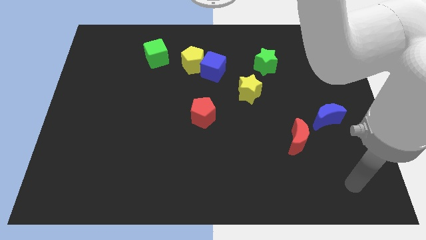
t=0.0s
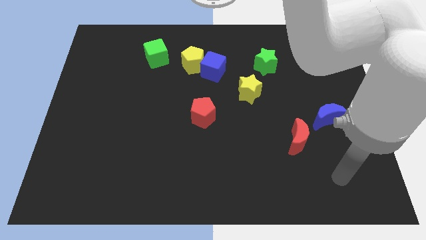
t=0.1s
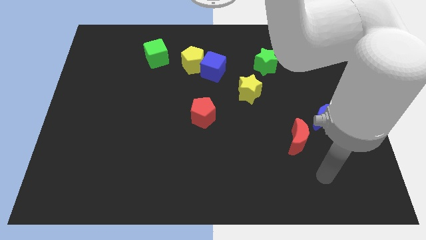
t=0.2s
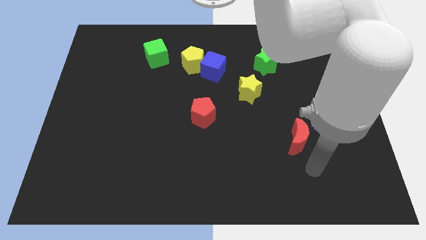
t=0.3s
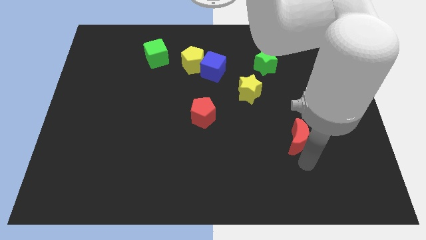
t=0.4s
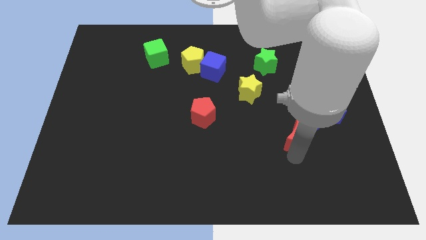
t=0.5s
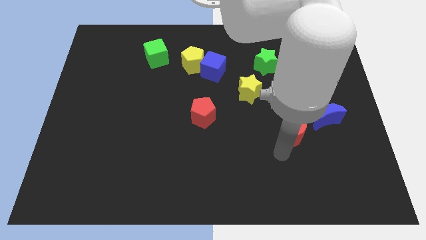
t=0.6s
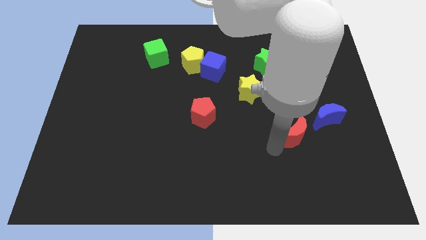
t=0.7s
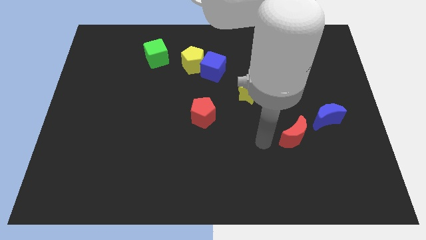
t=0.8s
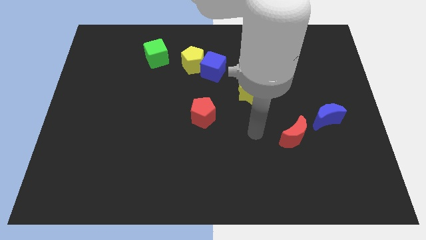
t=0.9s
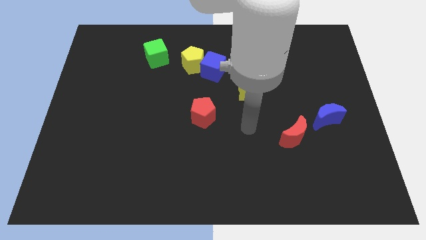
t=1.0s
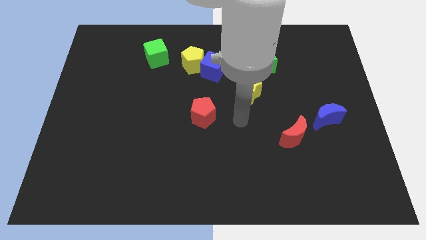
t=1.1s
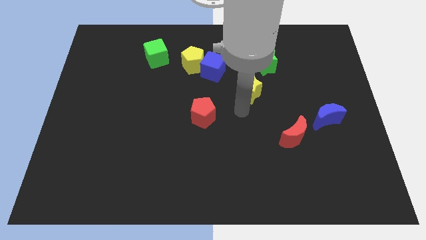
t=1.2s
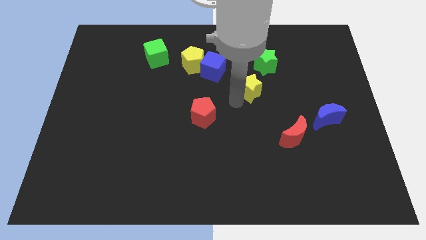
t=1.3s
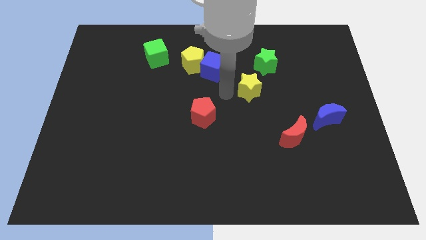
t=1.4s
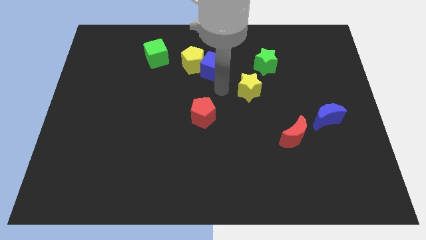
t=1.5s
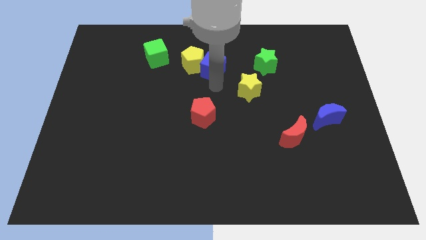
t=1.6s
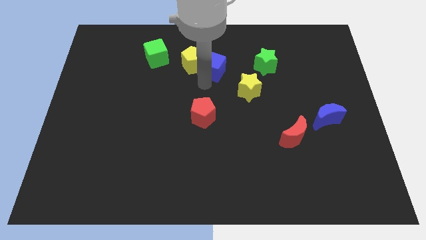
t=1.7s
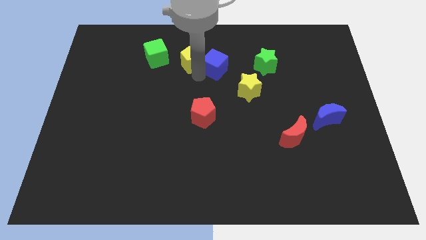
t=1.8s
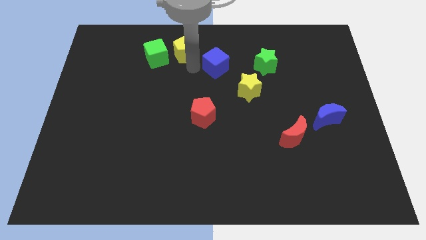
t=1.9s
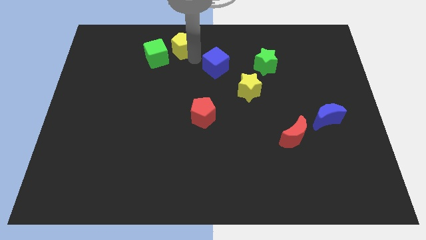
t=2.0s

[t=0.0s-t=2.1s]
move the blue cube away from the yellow pentagon

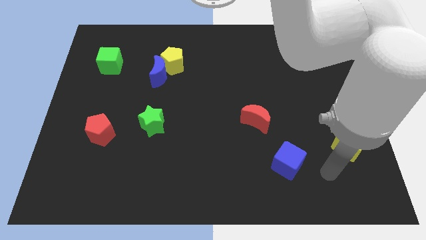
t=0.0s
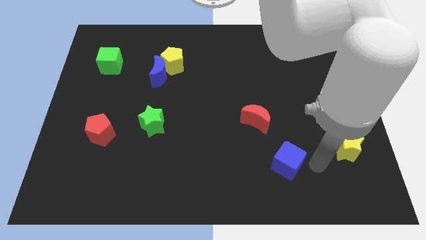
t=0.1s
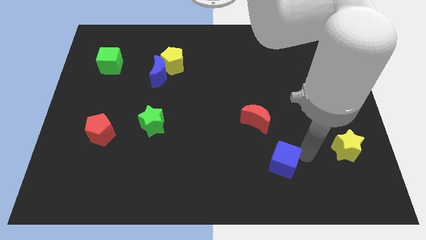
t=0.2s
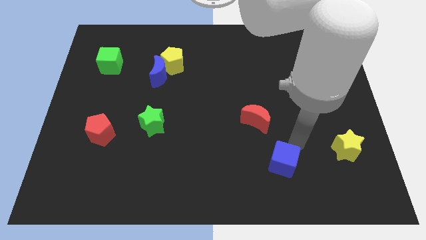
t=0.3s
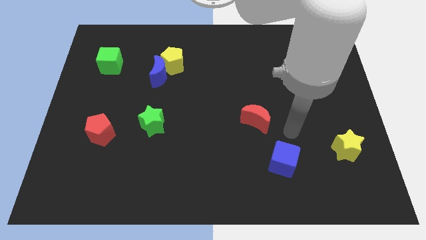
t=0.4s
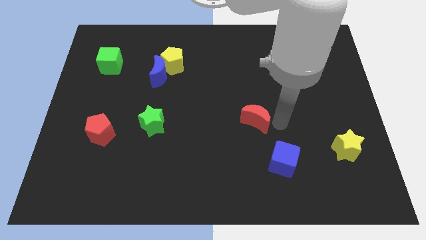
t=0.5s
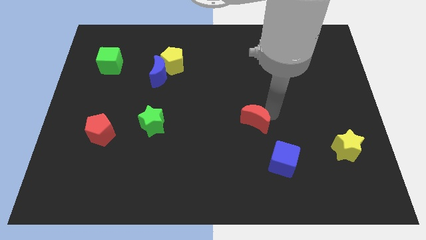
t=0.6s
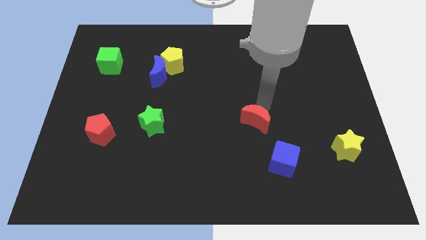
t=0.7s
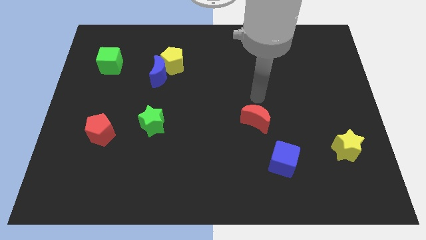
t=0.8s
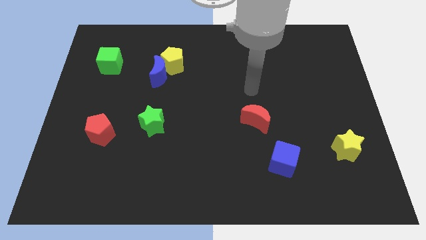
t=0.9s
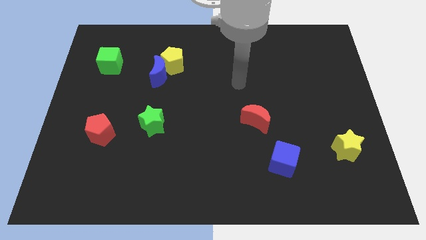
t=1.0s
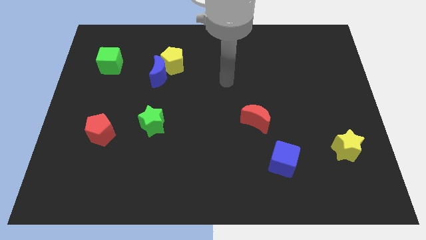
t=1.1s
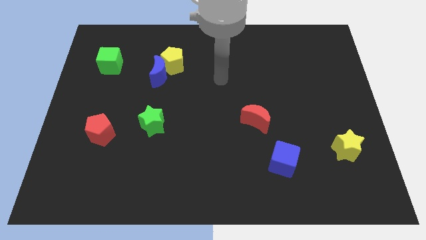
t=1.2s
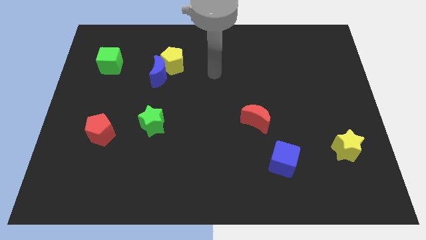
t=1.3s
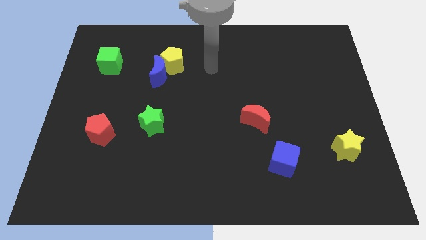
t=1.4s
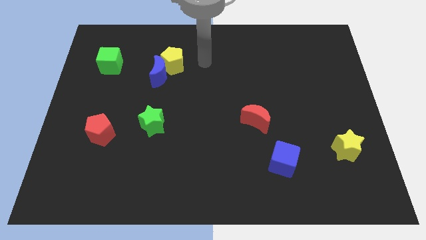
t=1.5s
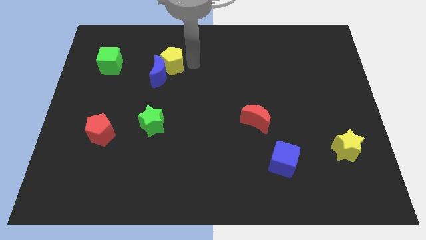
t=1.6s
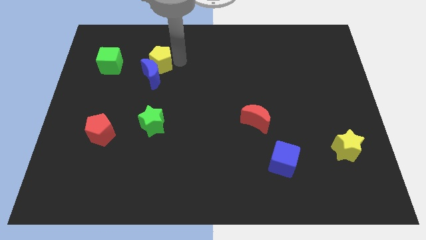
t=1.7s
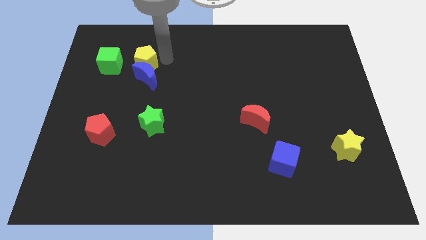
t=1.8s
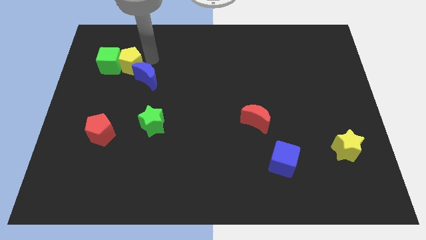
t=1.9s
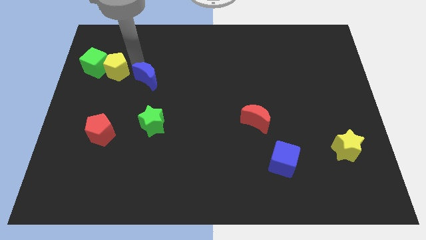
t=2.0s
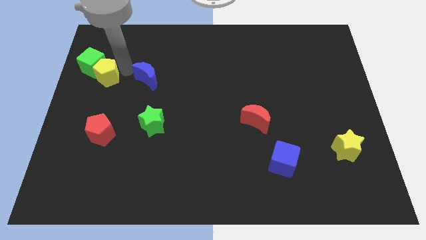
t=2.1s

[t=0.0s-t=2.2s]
pull the blue moon apart from the yellow pentagon

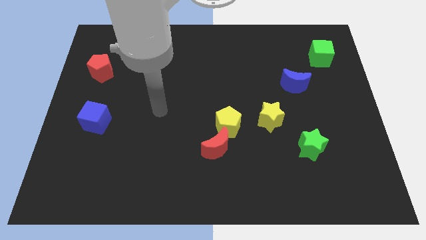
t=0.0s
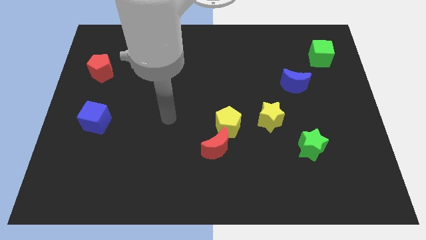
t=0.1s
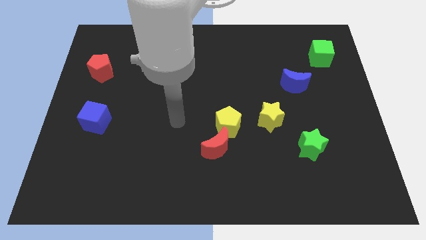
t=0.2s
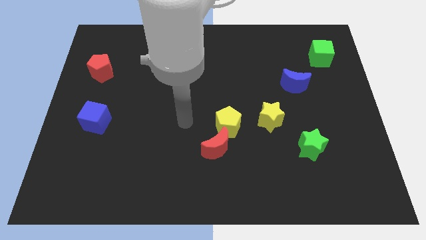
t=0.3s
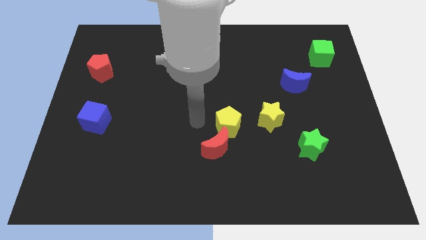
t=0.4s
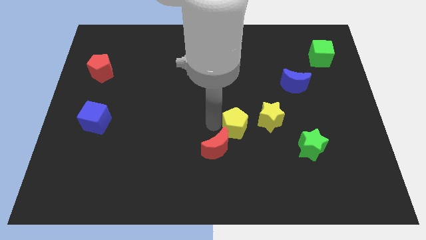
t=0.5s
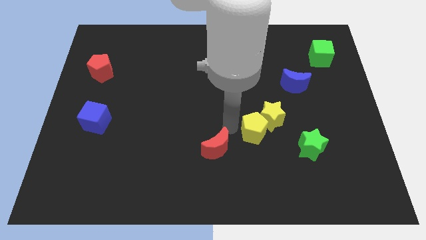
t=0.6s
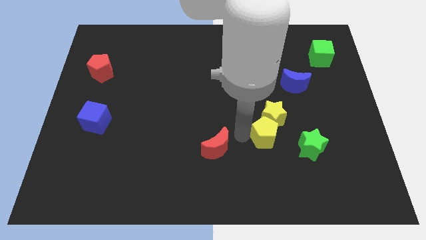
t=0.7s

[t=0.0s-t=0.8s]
move the red moon away from the yellow pentagon

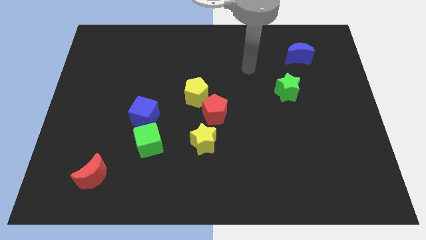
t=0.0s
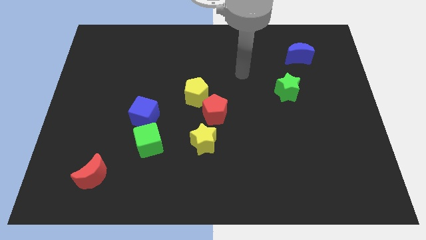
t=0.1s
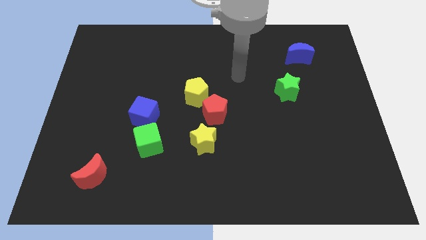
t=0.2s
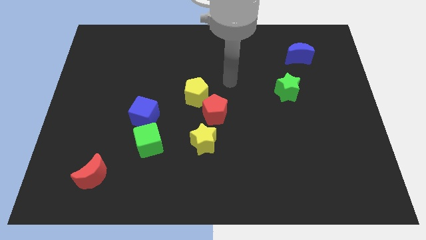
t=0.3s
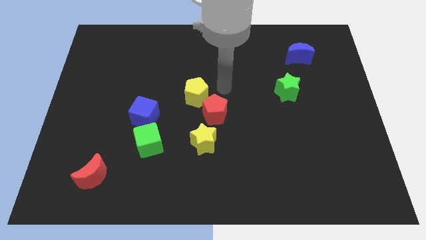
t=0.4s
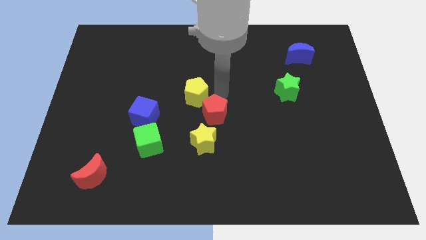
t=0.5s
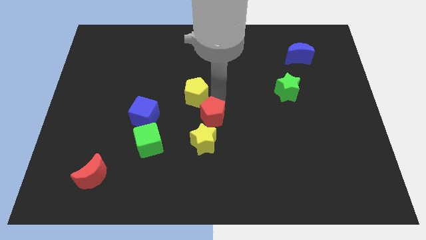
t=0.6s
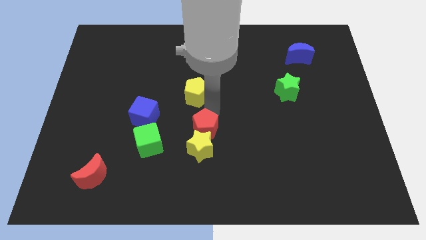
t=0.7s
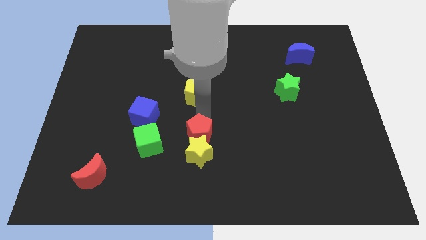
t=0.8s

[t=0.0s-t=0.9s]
pull the yellow pentagon apart from the red pentagon

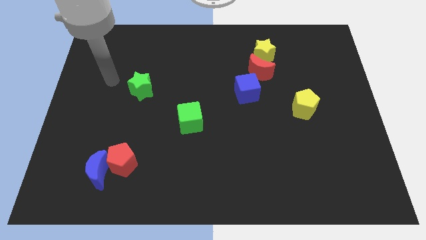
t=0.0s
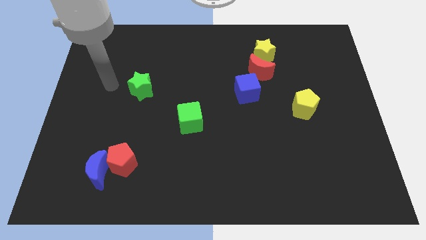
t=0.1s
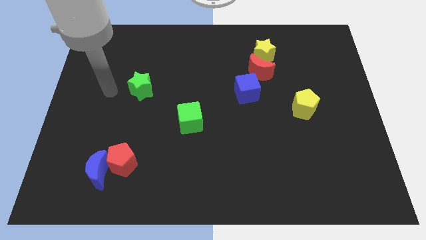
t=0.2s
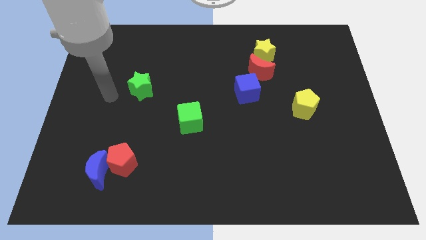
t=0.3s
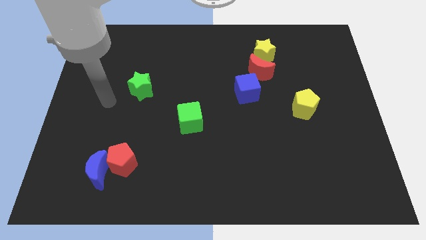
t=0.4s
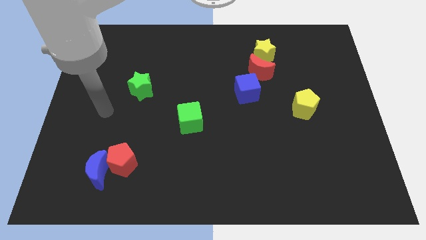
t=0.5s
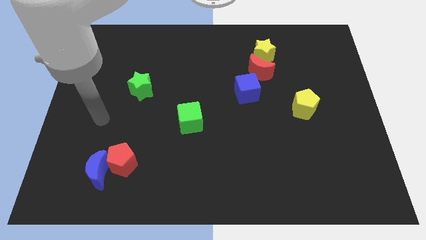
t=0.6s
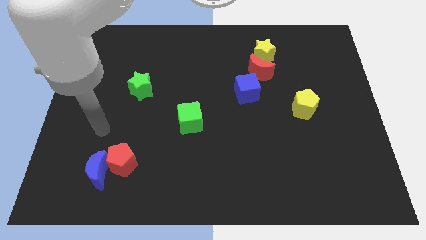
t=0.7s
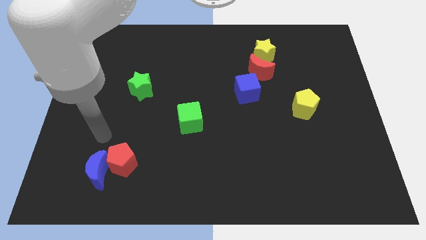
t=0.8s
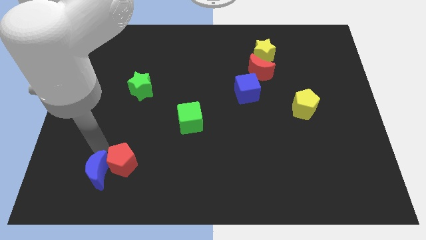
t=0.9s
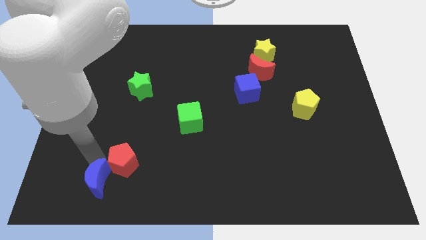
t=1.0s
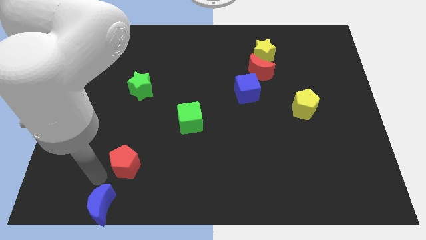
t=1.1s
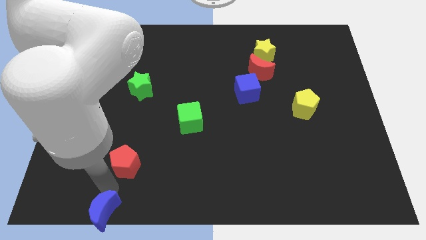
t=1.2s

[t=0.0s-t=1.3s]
separate the red pentagon from the blue moon

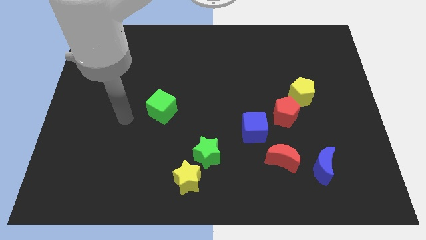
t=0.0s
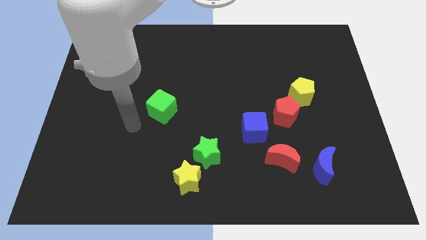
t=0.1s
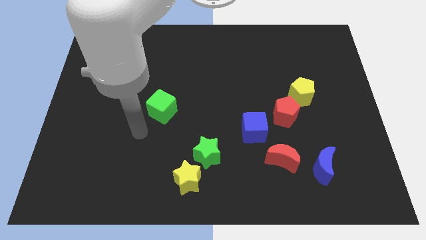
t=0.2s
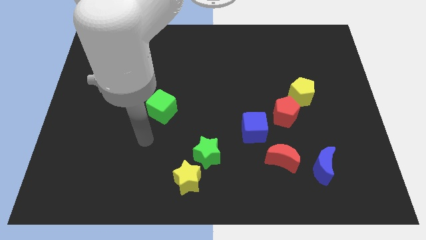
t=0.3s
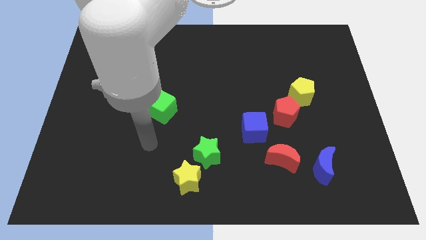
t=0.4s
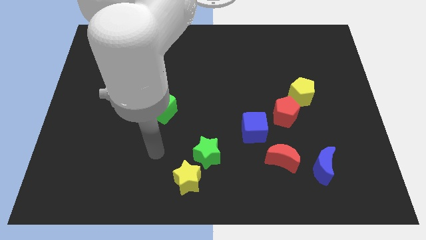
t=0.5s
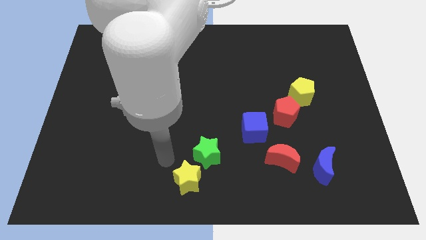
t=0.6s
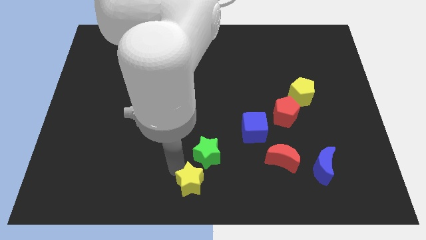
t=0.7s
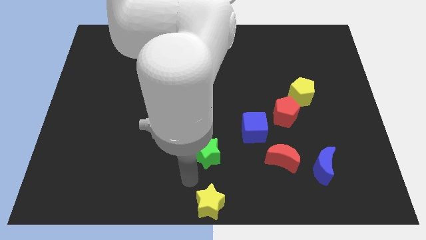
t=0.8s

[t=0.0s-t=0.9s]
pull the green star apart from the yellow star

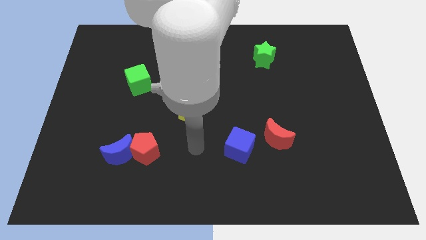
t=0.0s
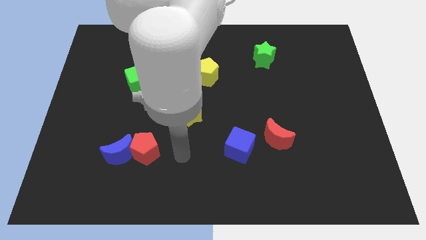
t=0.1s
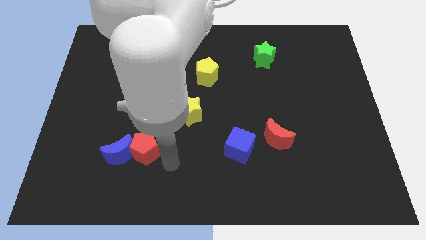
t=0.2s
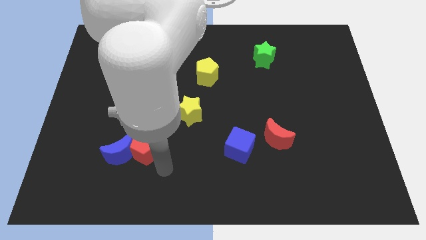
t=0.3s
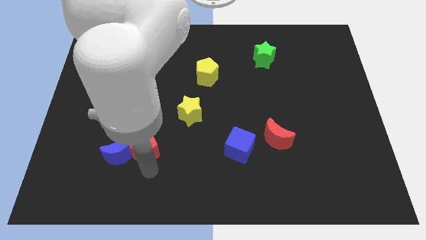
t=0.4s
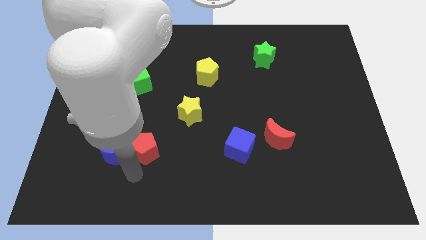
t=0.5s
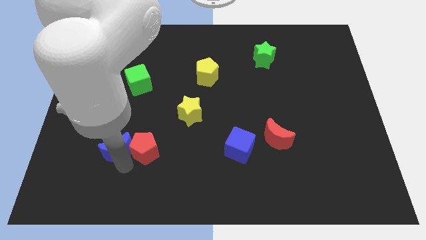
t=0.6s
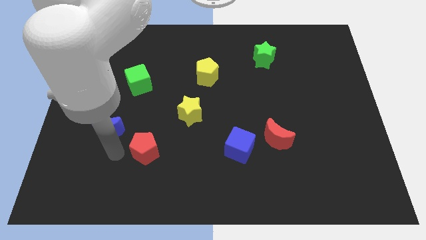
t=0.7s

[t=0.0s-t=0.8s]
pull the red pentagon apart from the blue moon

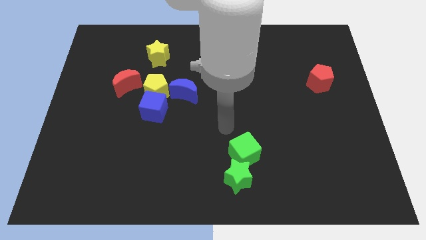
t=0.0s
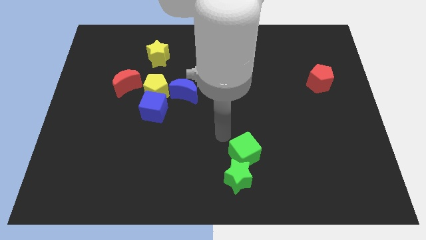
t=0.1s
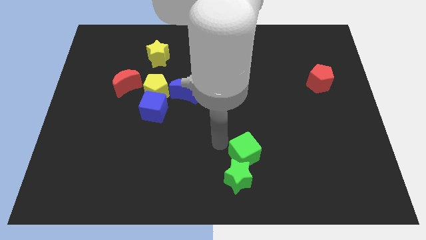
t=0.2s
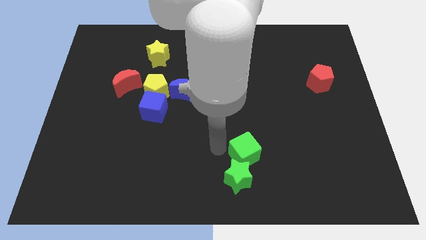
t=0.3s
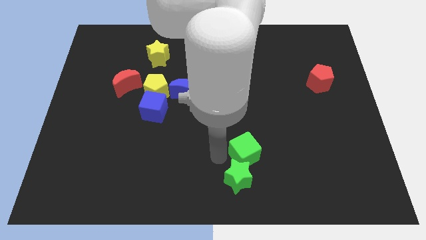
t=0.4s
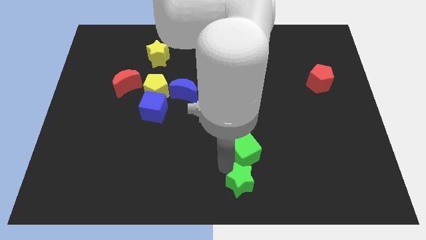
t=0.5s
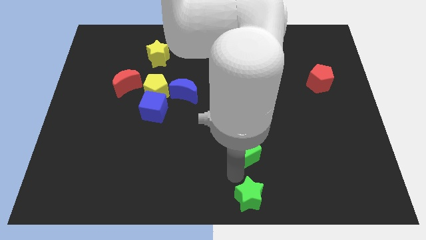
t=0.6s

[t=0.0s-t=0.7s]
move the green cube away from the green star
